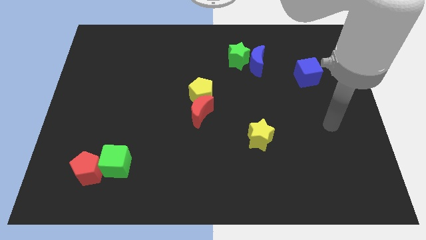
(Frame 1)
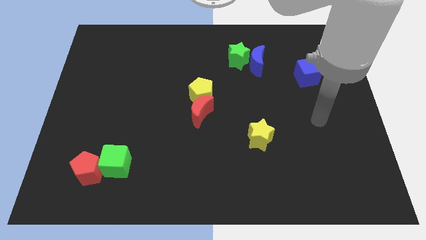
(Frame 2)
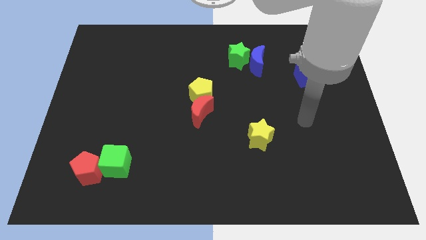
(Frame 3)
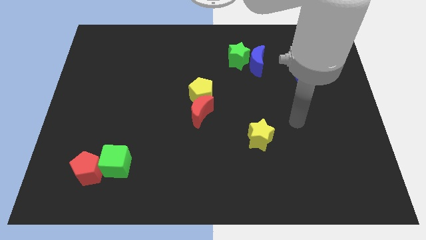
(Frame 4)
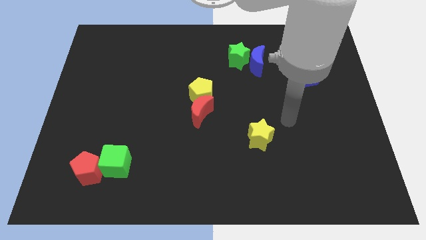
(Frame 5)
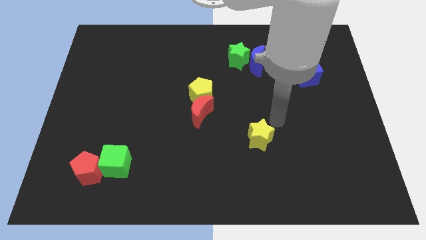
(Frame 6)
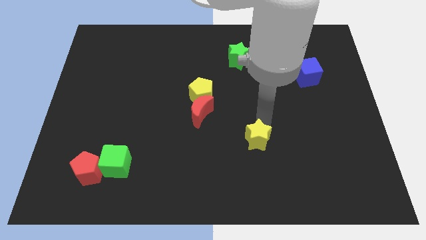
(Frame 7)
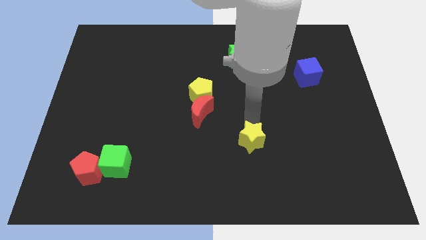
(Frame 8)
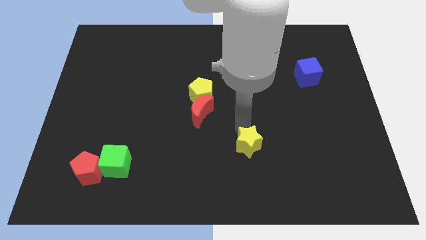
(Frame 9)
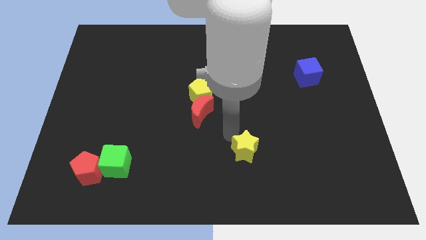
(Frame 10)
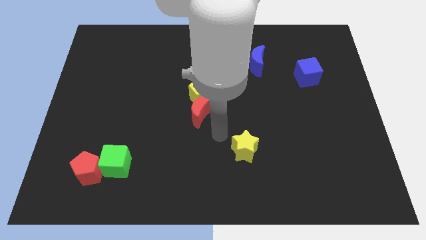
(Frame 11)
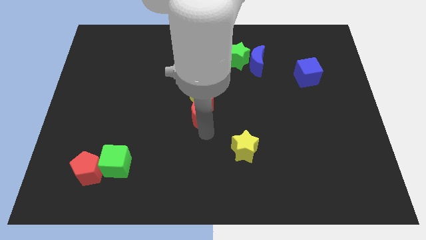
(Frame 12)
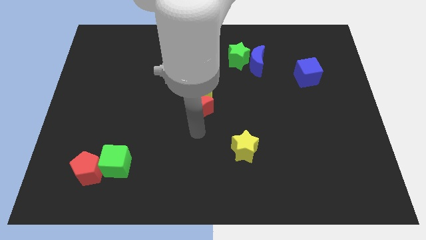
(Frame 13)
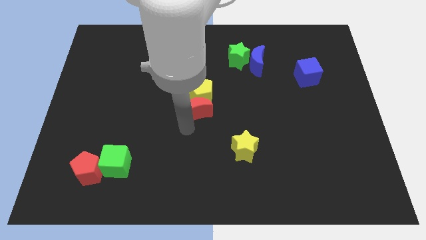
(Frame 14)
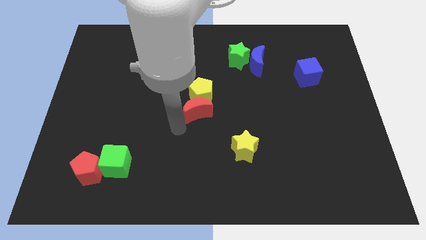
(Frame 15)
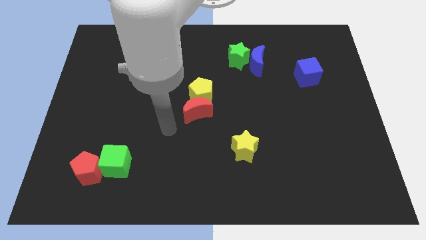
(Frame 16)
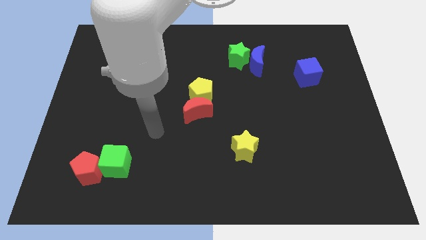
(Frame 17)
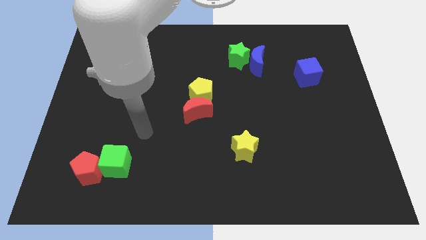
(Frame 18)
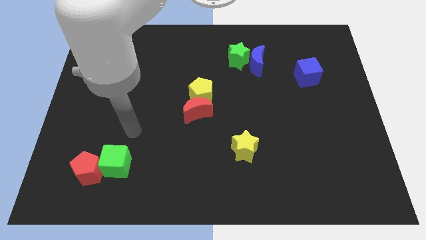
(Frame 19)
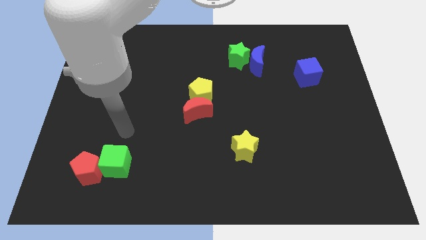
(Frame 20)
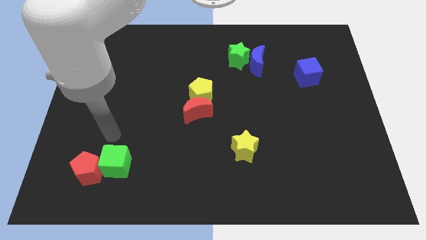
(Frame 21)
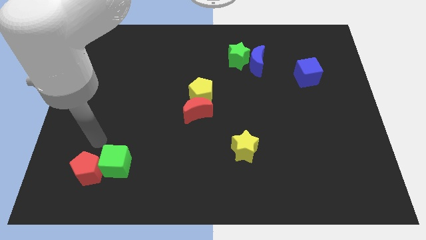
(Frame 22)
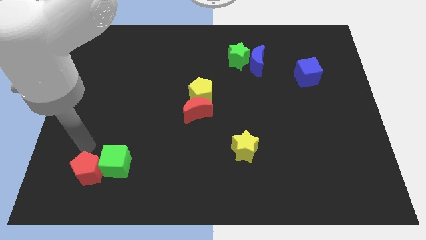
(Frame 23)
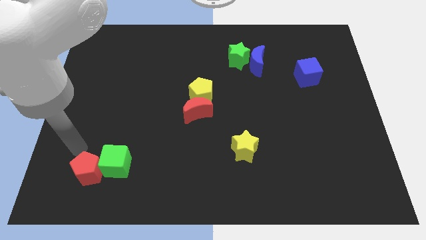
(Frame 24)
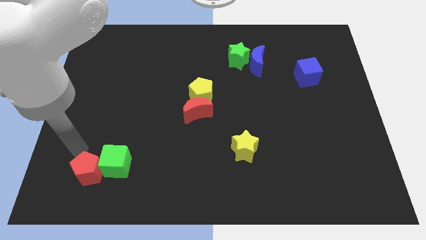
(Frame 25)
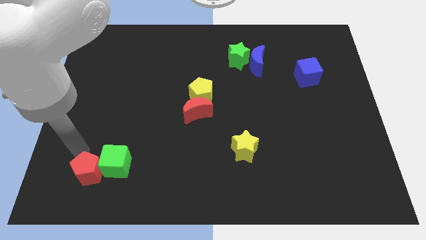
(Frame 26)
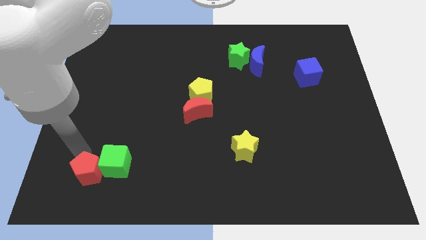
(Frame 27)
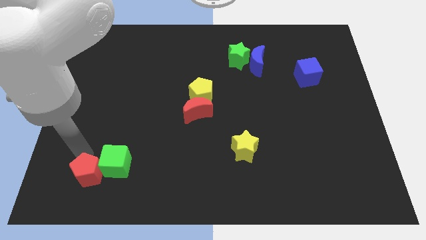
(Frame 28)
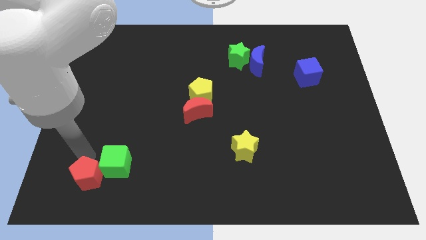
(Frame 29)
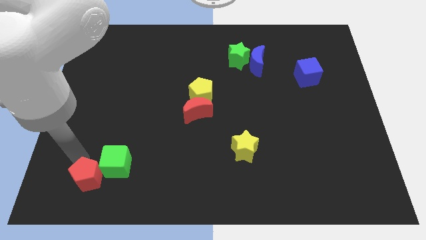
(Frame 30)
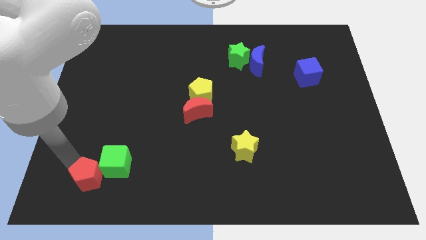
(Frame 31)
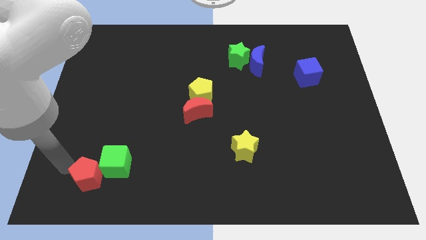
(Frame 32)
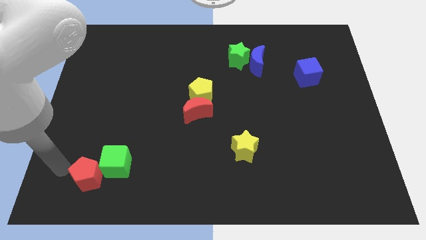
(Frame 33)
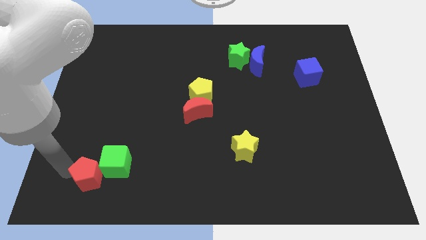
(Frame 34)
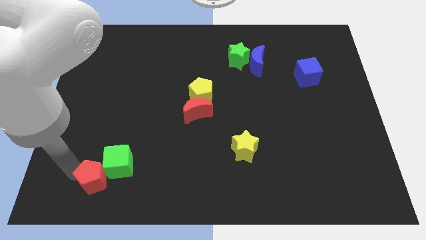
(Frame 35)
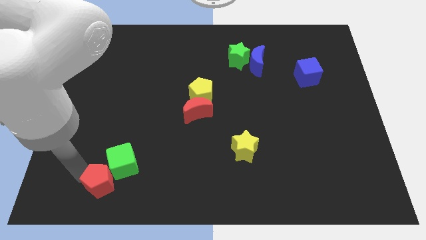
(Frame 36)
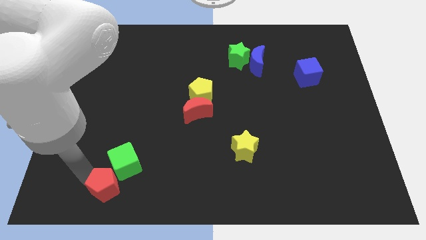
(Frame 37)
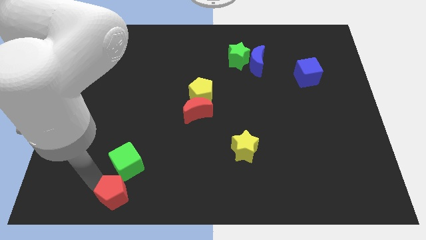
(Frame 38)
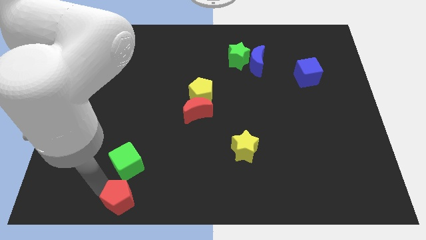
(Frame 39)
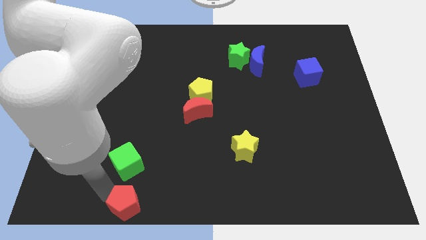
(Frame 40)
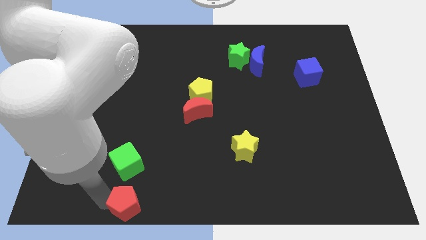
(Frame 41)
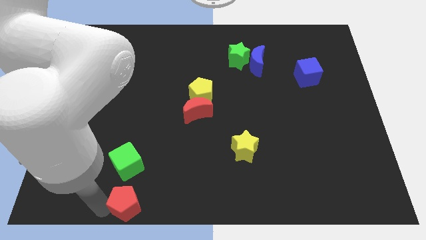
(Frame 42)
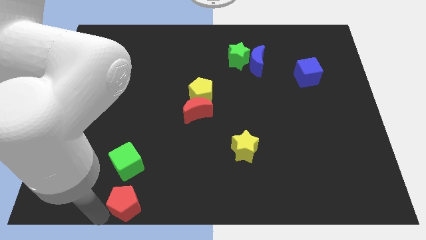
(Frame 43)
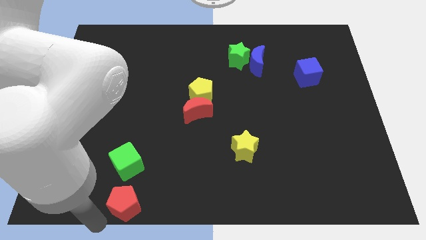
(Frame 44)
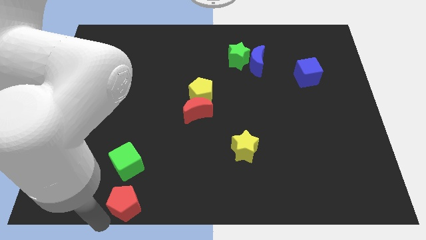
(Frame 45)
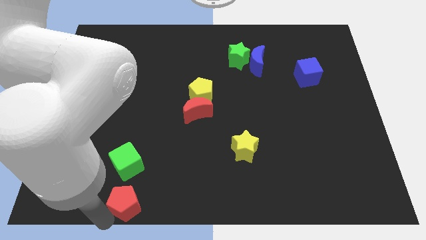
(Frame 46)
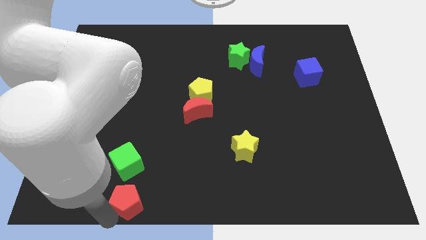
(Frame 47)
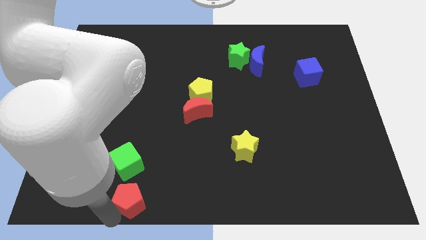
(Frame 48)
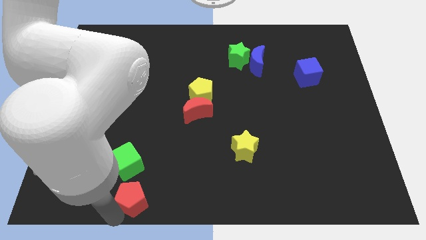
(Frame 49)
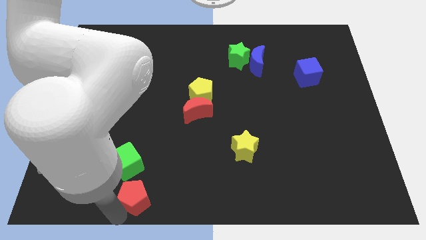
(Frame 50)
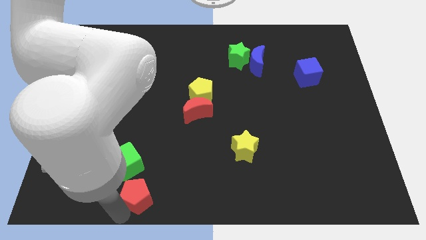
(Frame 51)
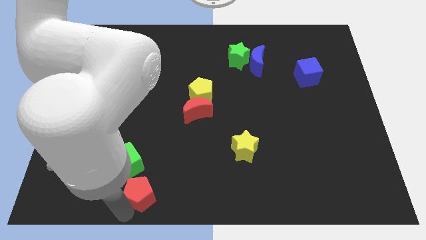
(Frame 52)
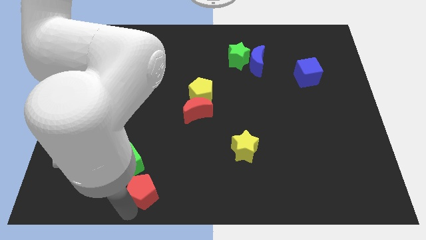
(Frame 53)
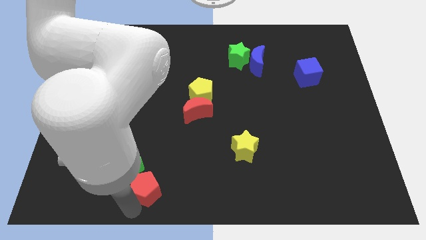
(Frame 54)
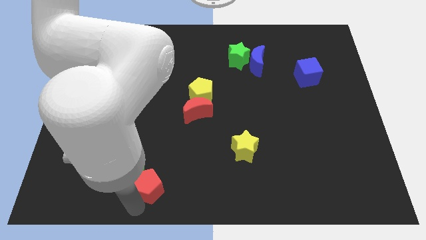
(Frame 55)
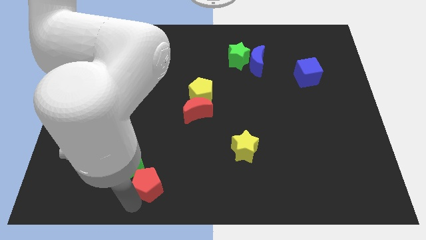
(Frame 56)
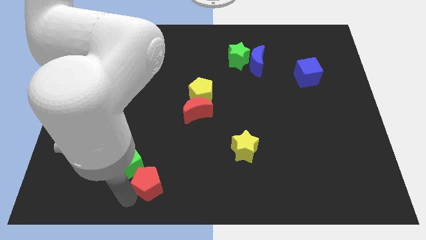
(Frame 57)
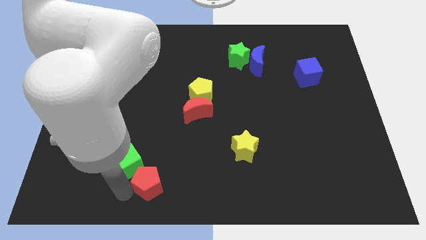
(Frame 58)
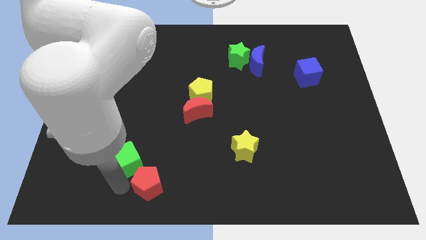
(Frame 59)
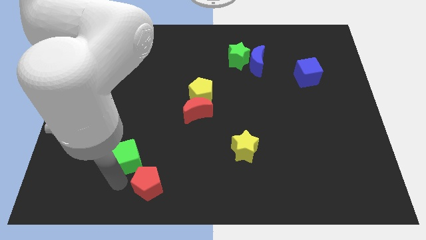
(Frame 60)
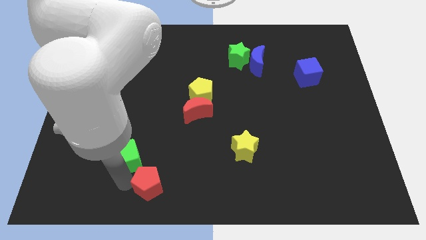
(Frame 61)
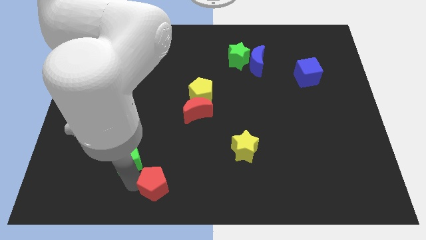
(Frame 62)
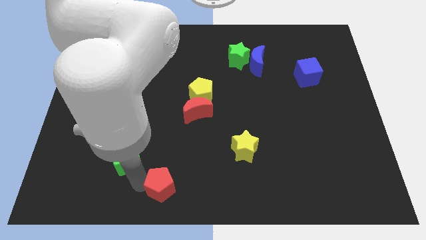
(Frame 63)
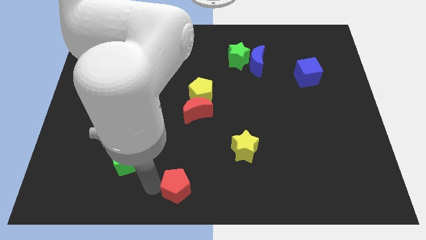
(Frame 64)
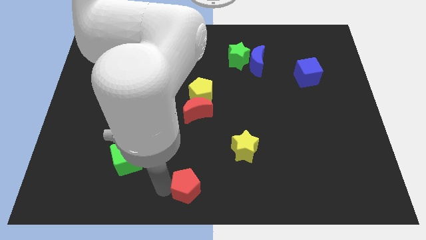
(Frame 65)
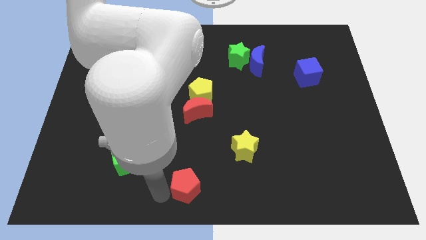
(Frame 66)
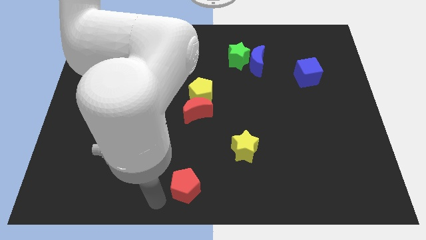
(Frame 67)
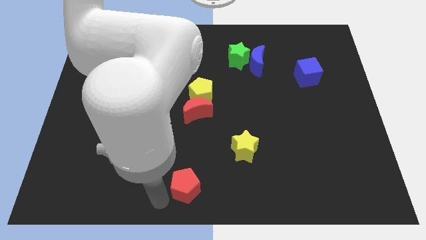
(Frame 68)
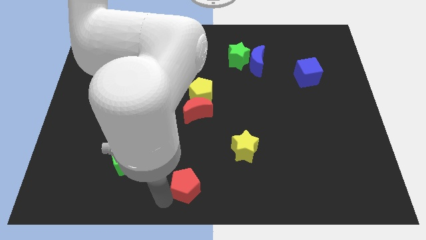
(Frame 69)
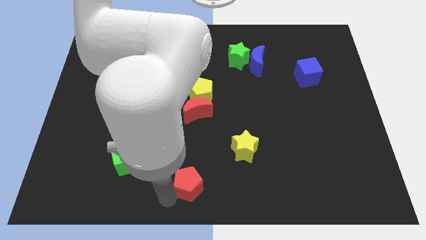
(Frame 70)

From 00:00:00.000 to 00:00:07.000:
move the red pentagon to the right

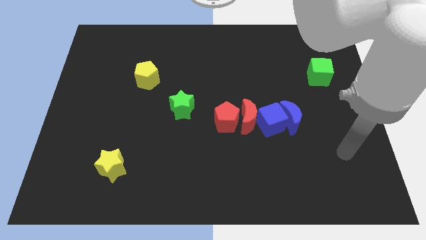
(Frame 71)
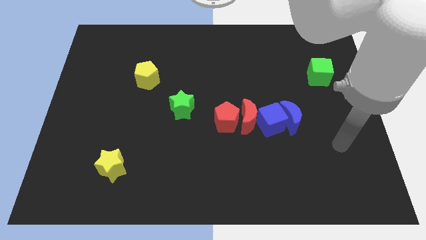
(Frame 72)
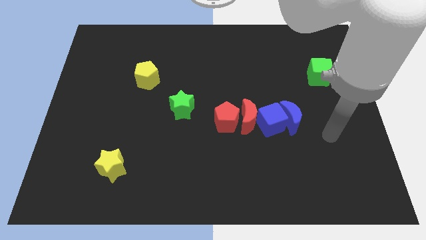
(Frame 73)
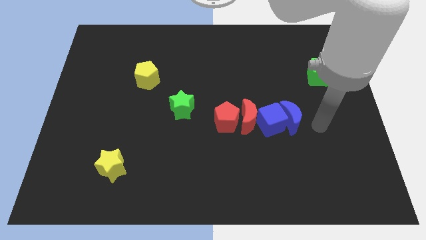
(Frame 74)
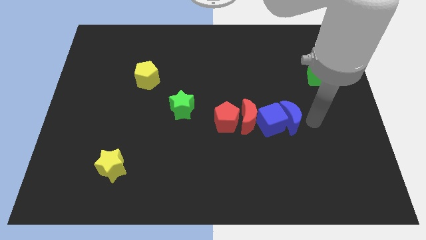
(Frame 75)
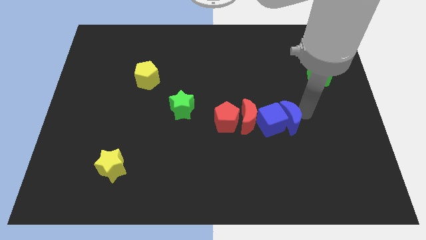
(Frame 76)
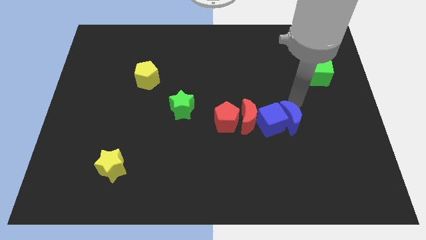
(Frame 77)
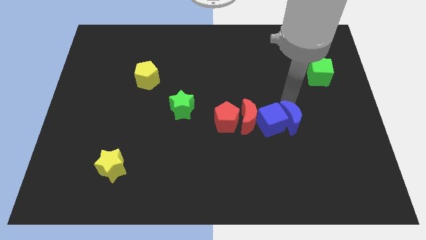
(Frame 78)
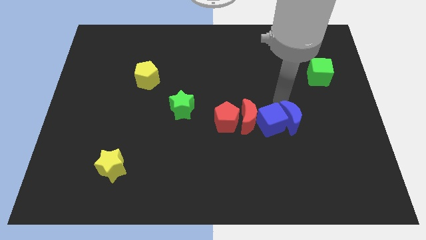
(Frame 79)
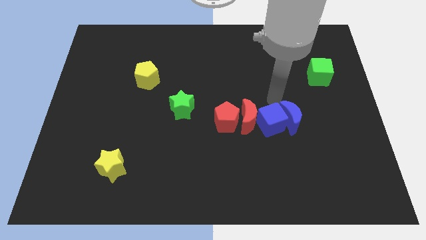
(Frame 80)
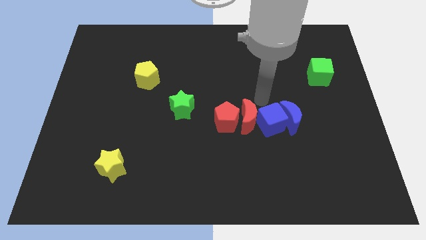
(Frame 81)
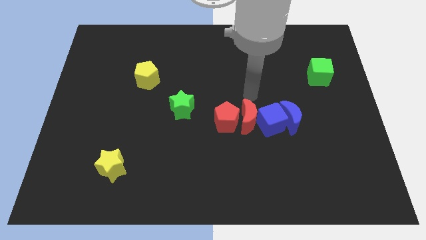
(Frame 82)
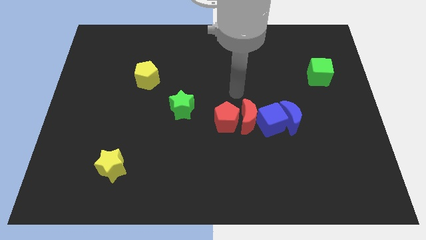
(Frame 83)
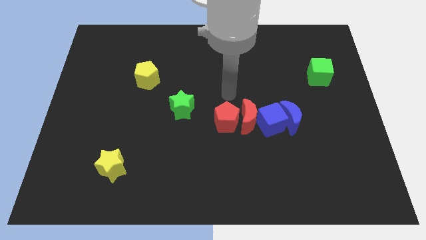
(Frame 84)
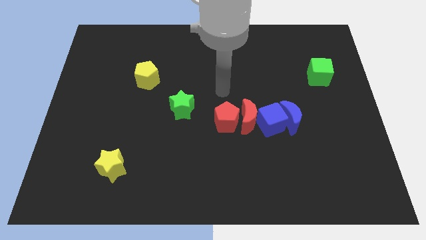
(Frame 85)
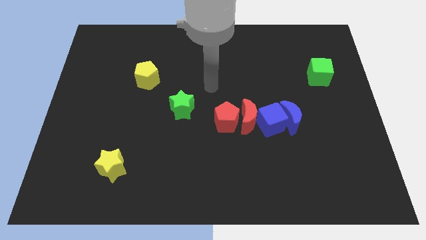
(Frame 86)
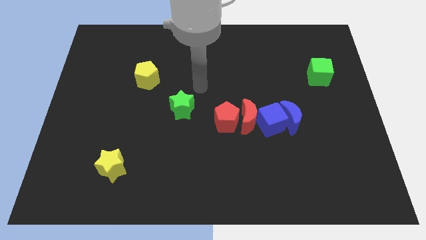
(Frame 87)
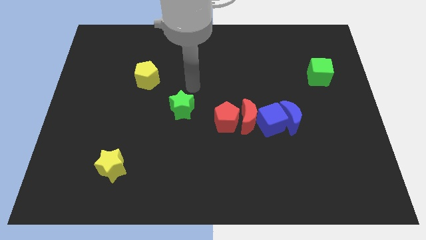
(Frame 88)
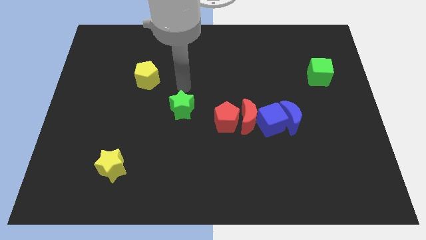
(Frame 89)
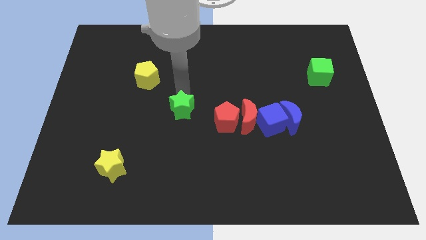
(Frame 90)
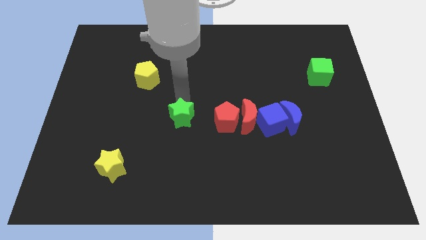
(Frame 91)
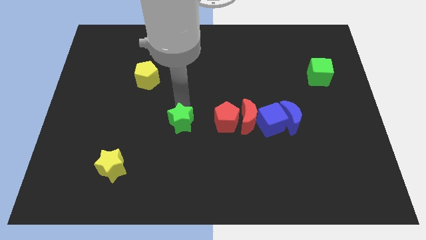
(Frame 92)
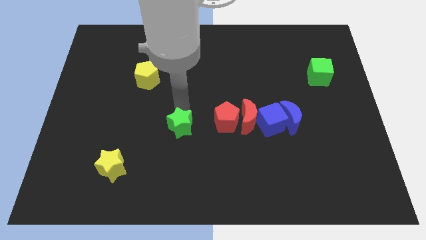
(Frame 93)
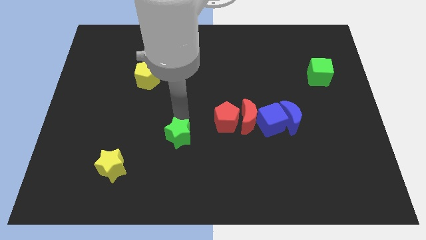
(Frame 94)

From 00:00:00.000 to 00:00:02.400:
push the green star down a little bit
